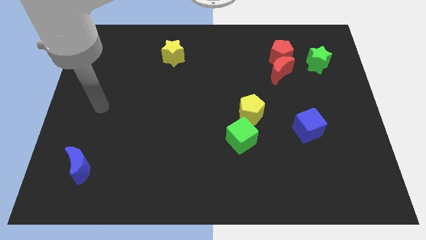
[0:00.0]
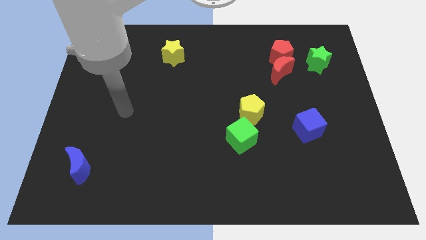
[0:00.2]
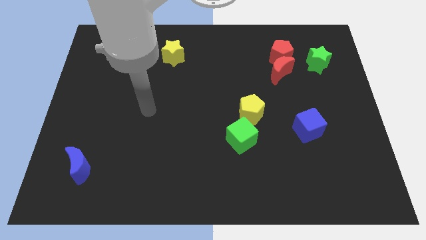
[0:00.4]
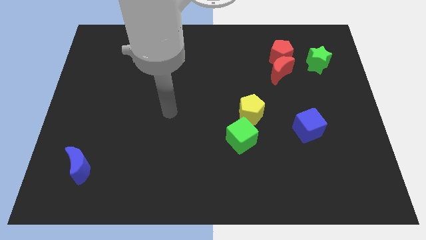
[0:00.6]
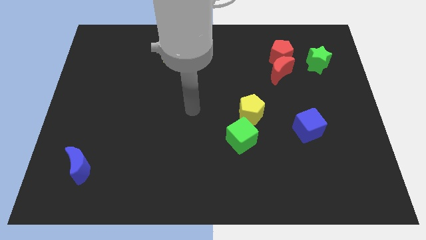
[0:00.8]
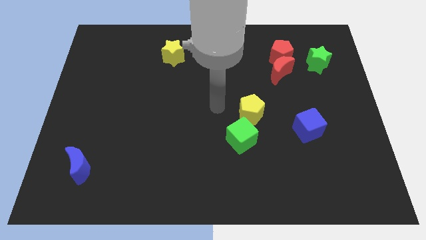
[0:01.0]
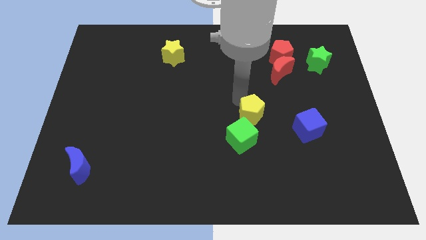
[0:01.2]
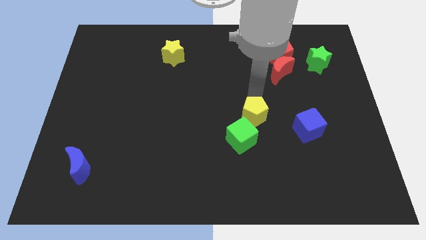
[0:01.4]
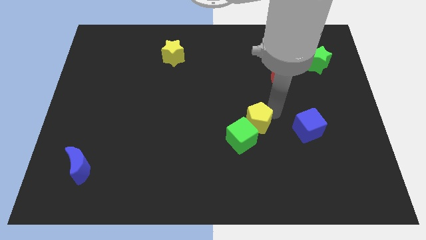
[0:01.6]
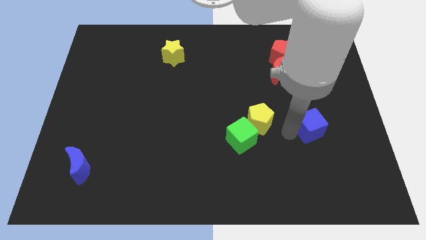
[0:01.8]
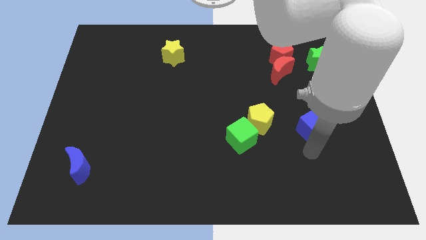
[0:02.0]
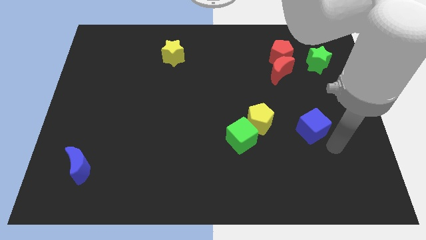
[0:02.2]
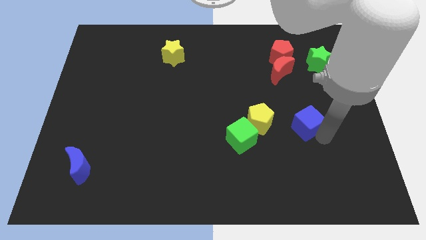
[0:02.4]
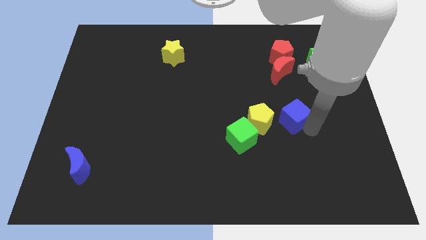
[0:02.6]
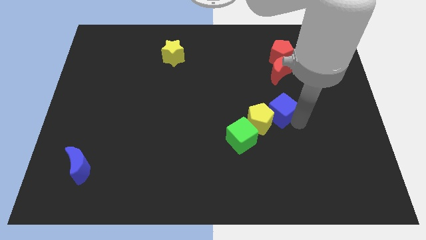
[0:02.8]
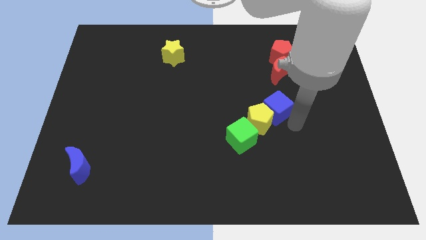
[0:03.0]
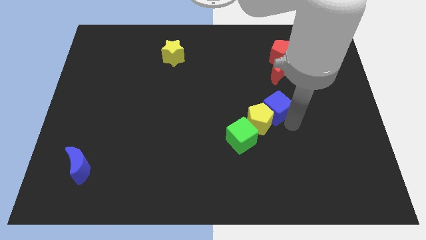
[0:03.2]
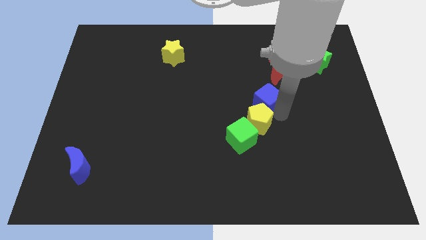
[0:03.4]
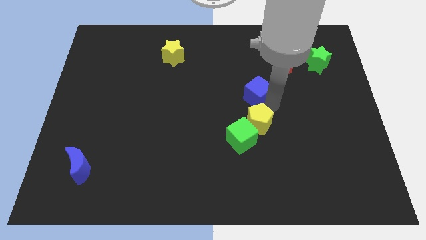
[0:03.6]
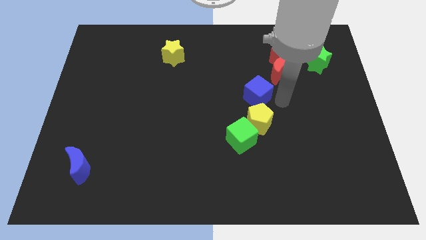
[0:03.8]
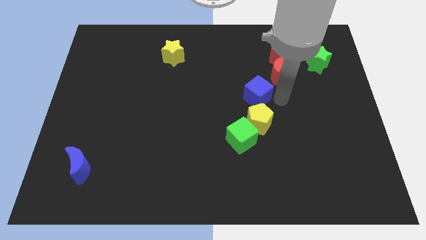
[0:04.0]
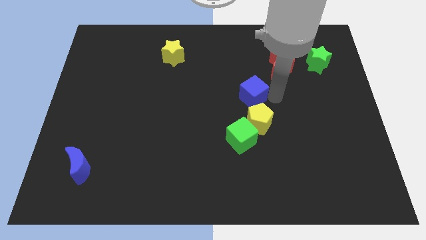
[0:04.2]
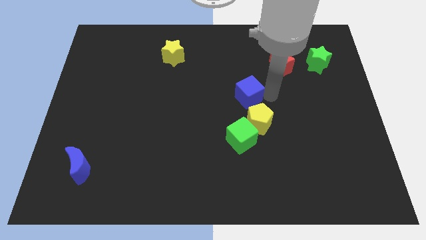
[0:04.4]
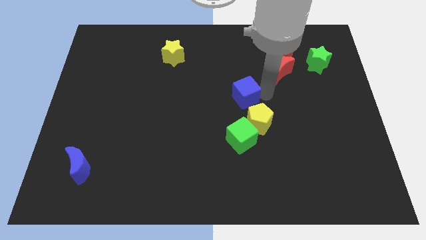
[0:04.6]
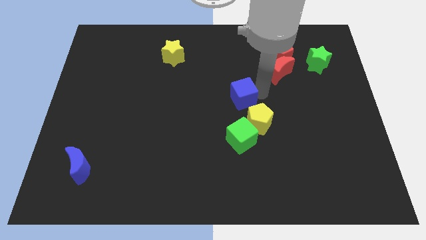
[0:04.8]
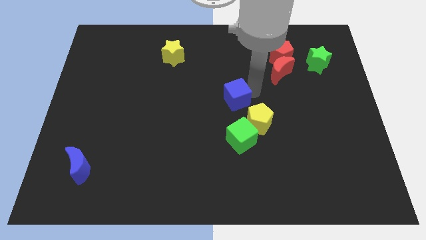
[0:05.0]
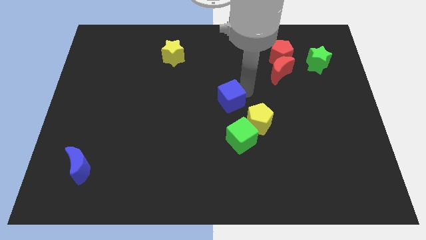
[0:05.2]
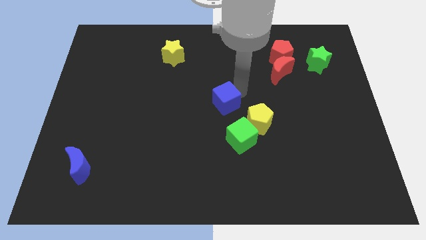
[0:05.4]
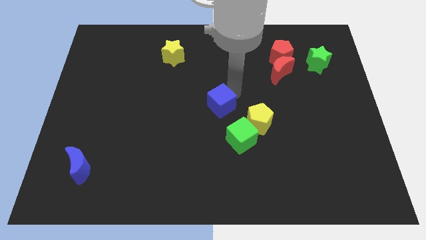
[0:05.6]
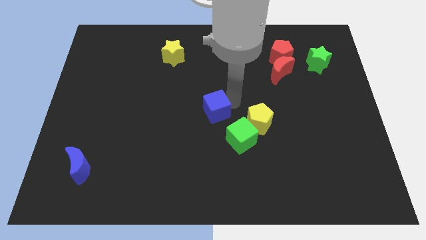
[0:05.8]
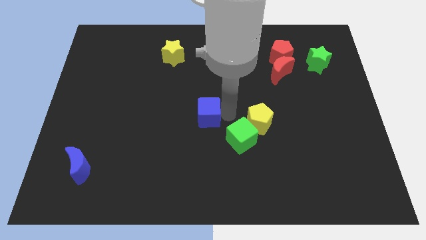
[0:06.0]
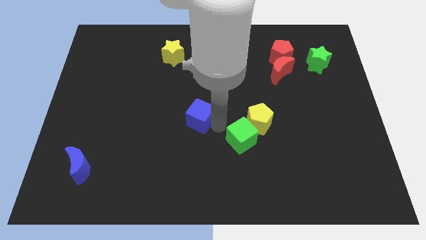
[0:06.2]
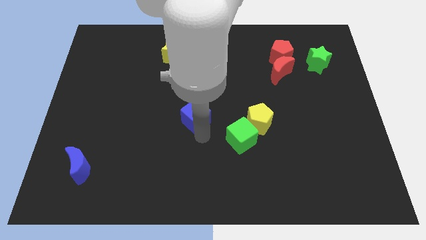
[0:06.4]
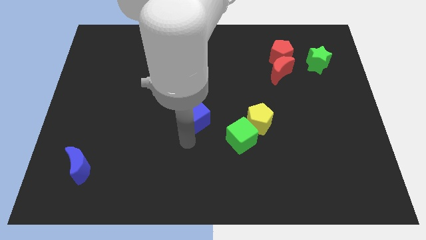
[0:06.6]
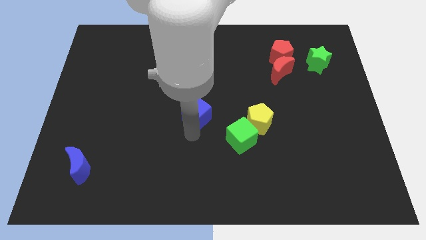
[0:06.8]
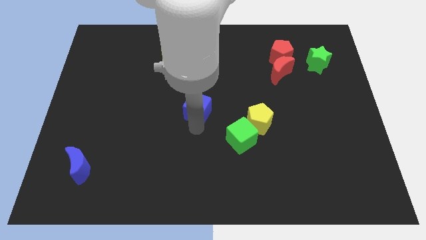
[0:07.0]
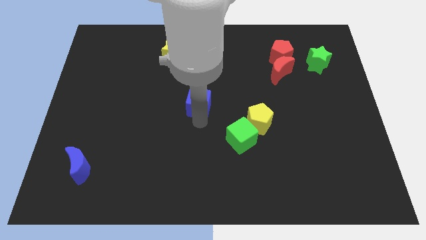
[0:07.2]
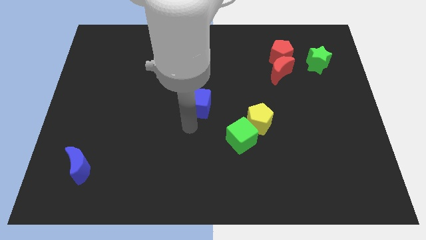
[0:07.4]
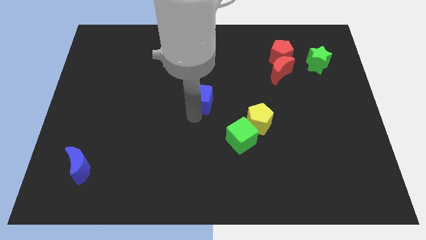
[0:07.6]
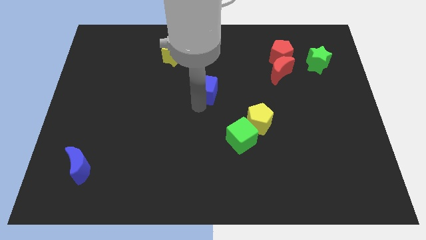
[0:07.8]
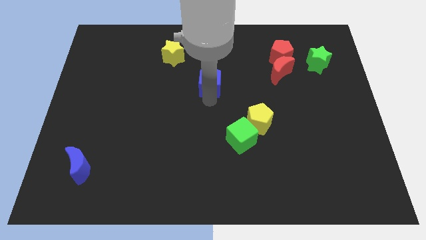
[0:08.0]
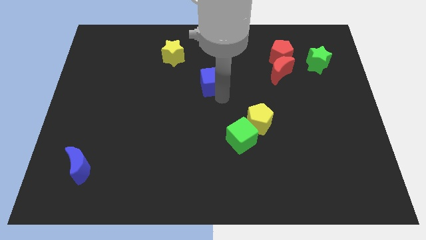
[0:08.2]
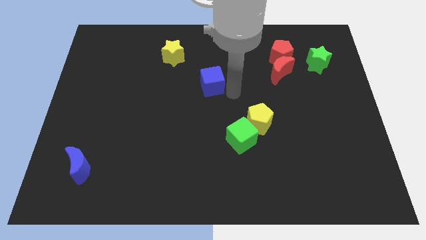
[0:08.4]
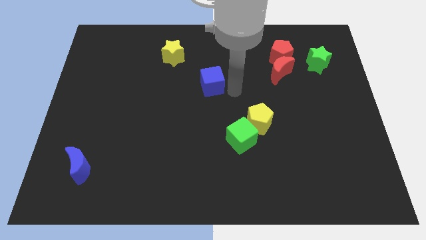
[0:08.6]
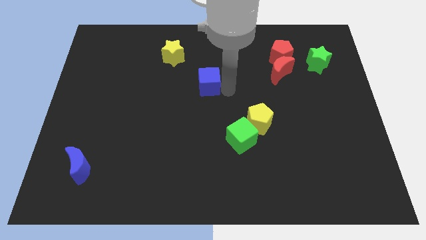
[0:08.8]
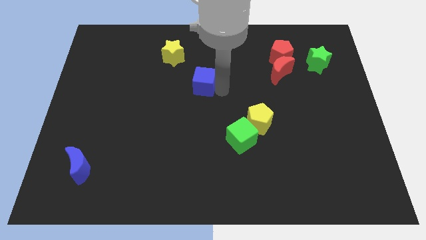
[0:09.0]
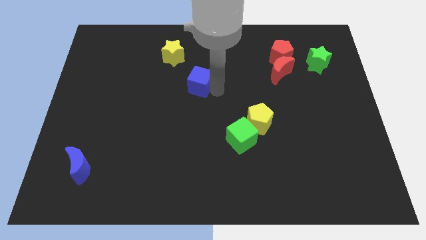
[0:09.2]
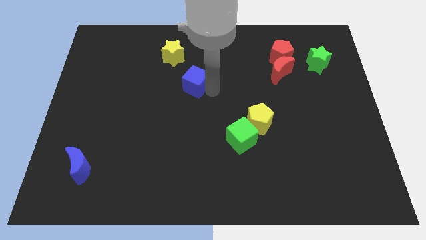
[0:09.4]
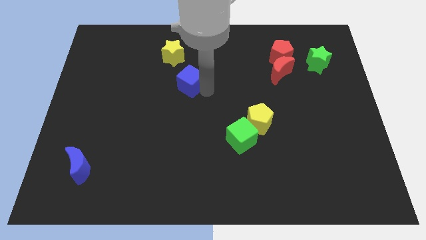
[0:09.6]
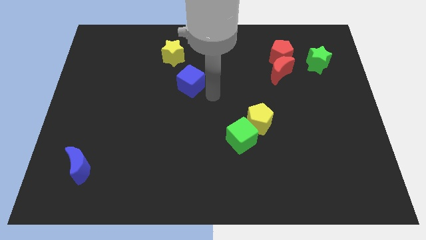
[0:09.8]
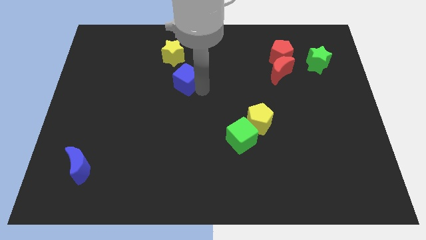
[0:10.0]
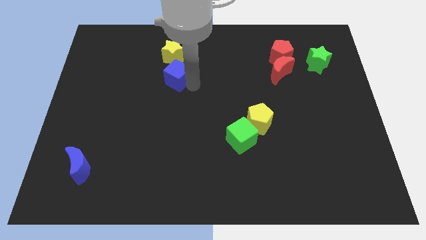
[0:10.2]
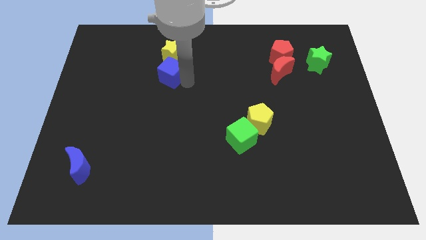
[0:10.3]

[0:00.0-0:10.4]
slide the blue cube to the bottom left side of the yellow star

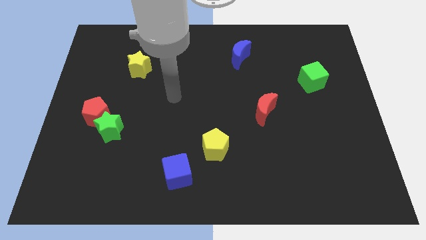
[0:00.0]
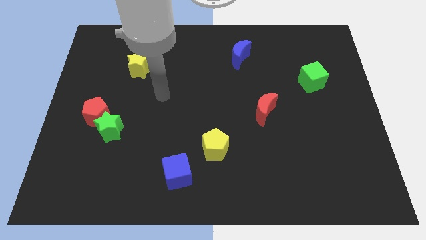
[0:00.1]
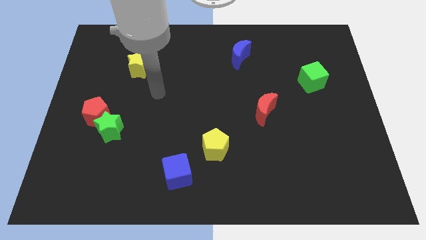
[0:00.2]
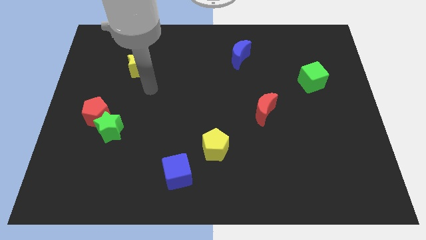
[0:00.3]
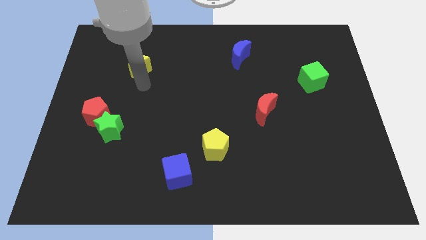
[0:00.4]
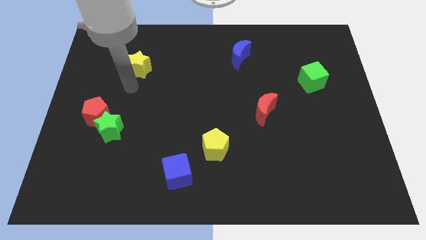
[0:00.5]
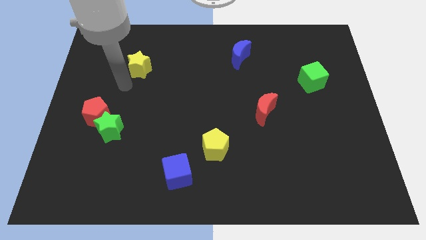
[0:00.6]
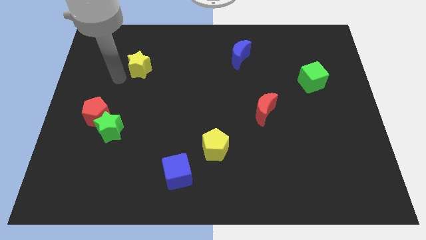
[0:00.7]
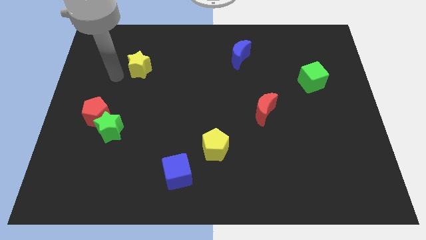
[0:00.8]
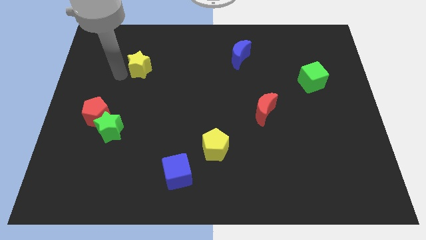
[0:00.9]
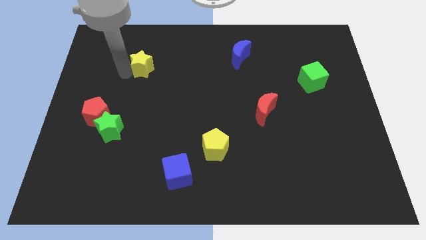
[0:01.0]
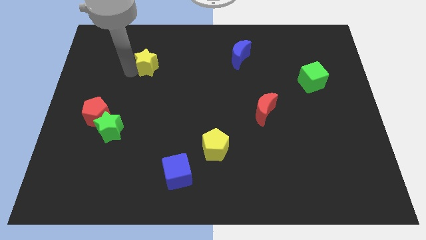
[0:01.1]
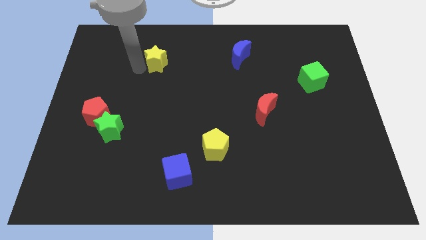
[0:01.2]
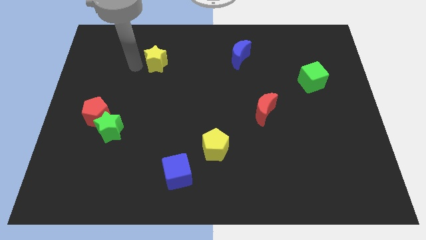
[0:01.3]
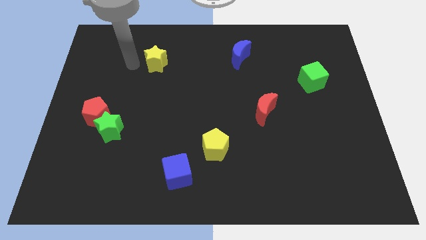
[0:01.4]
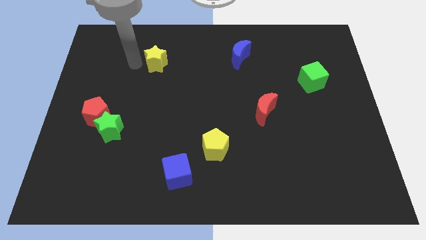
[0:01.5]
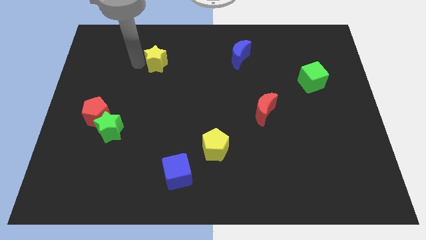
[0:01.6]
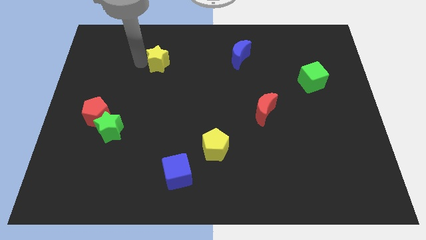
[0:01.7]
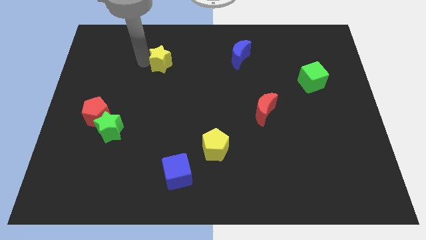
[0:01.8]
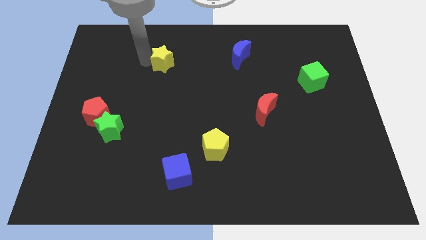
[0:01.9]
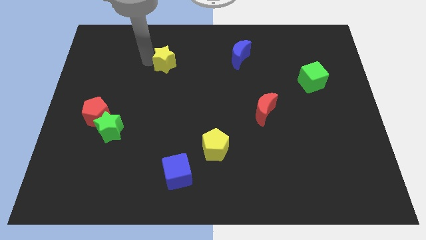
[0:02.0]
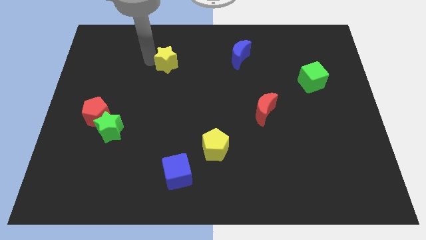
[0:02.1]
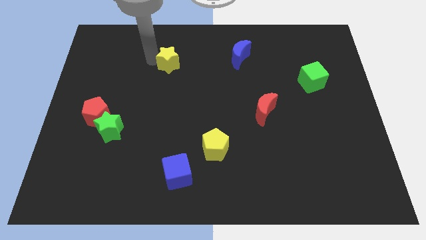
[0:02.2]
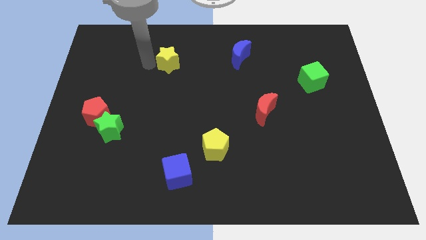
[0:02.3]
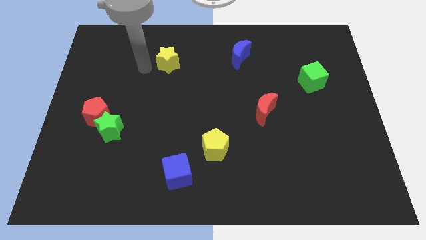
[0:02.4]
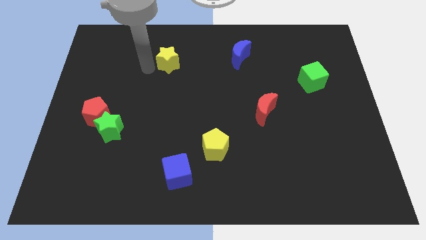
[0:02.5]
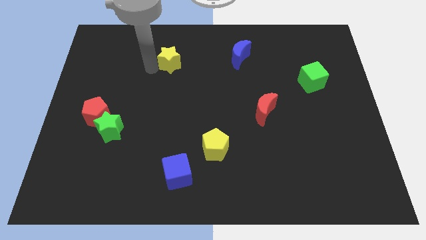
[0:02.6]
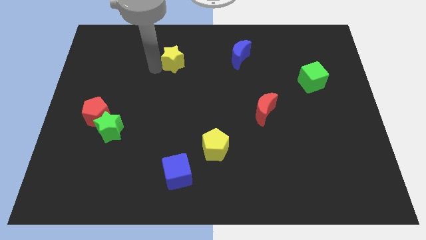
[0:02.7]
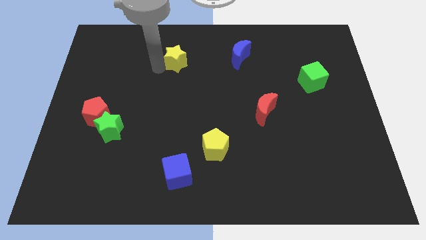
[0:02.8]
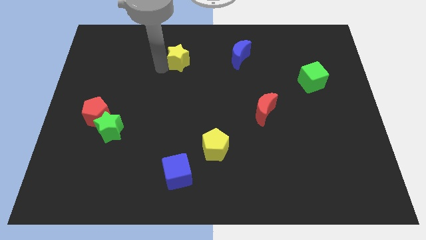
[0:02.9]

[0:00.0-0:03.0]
slide the yellow star left of the blue moon
